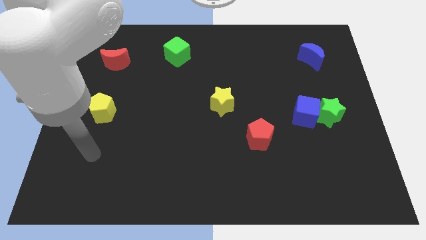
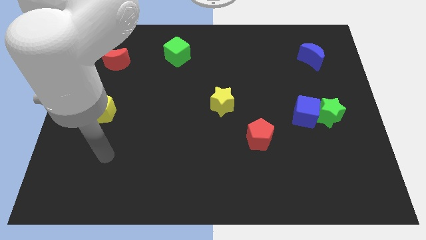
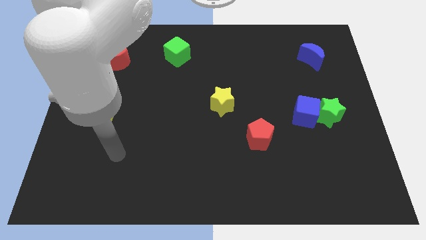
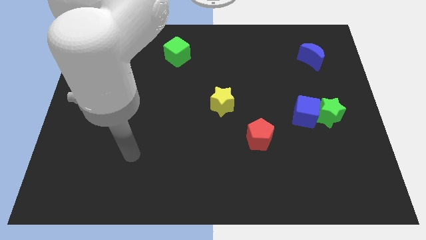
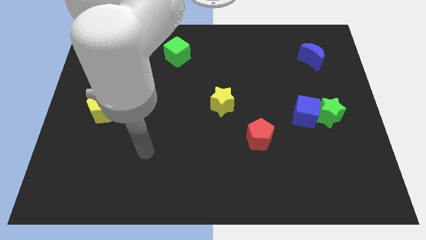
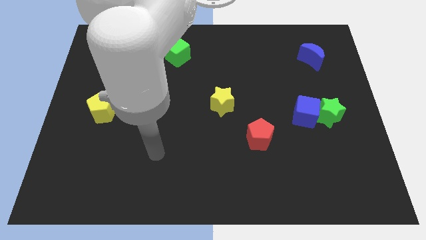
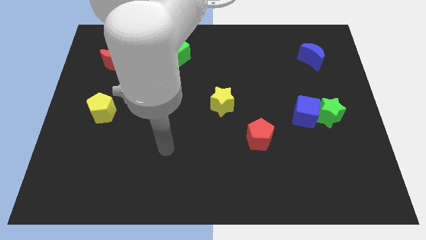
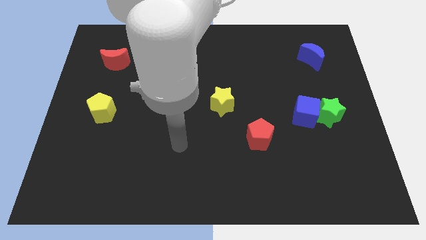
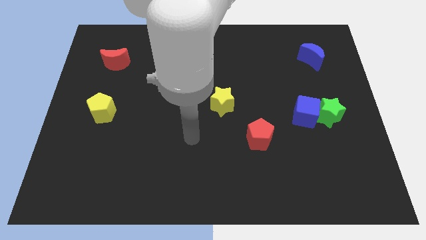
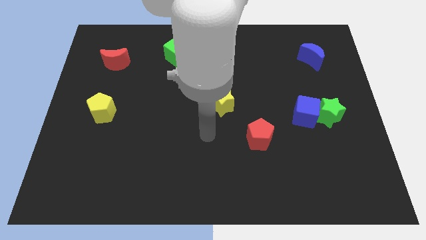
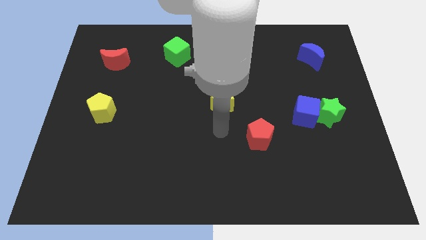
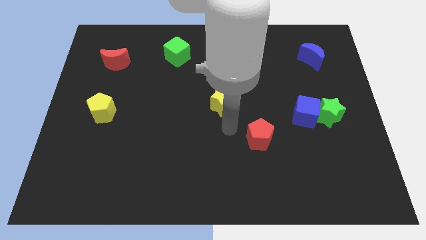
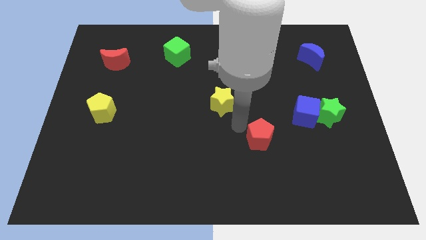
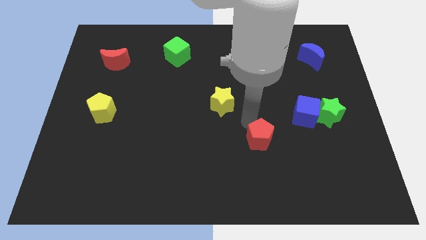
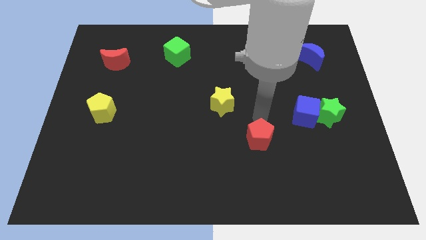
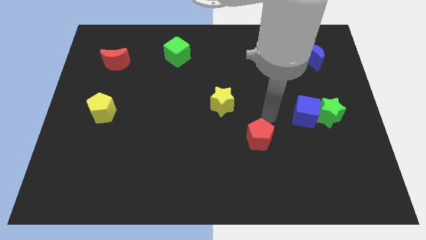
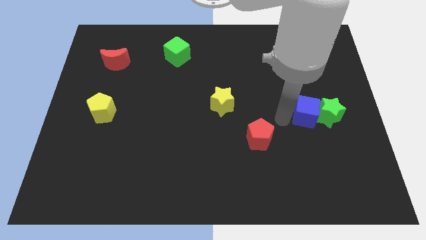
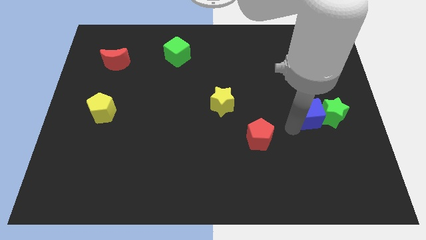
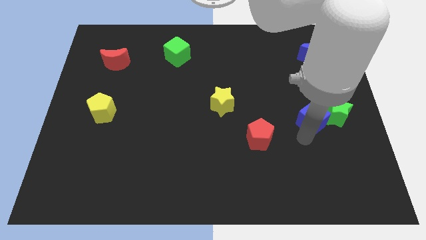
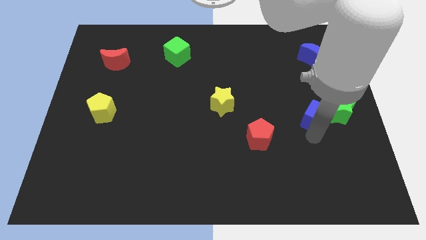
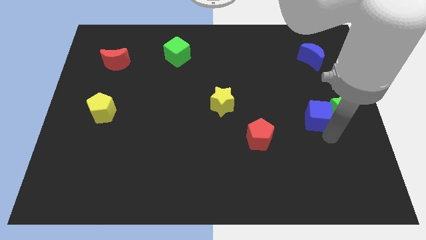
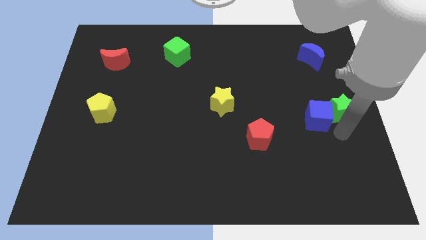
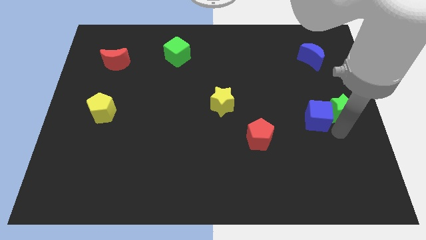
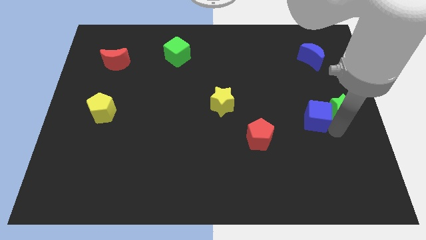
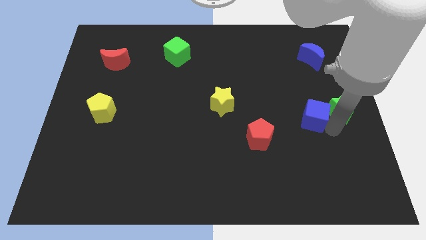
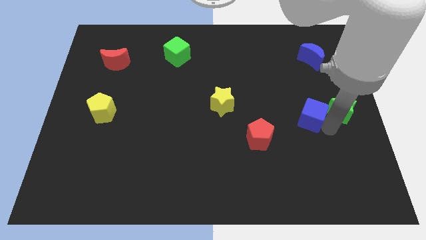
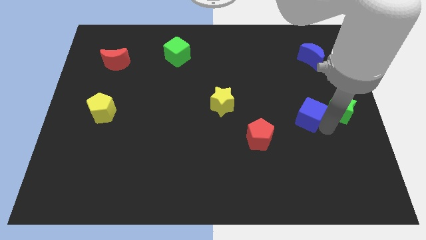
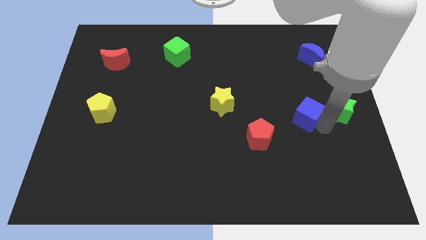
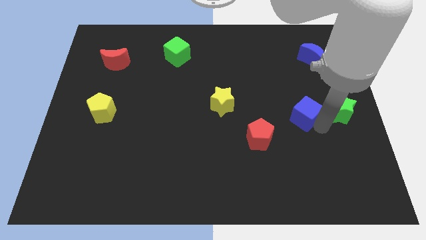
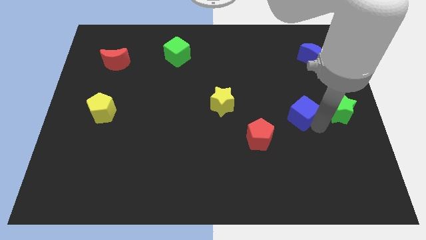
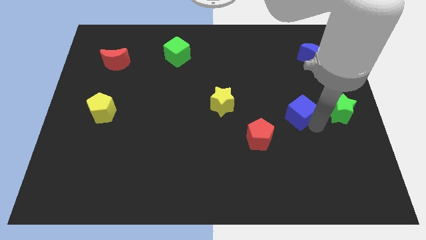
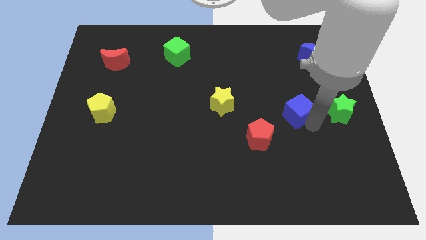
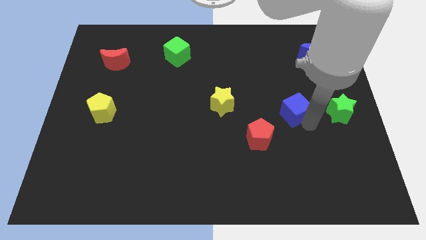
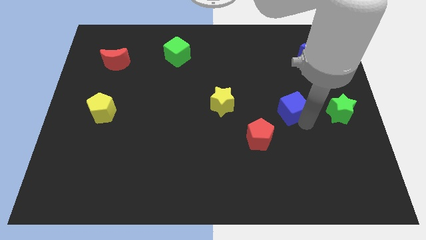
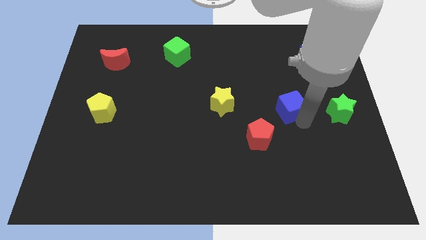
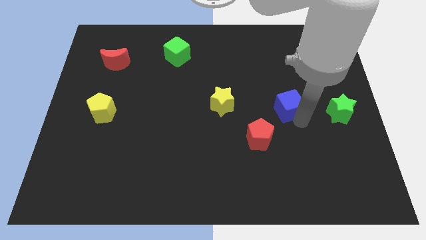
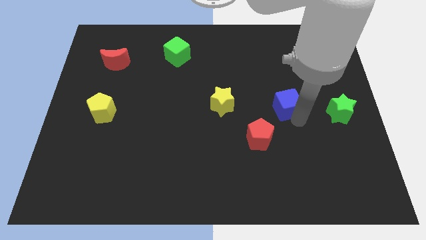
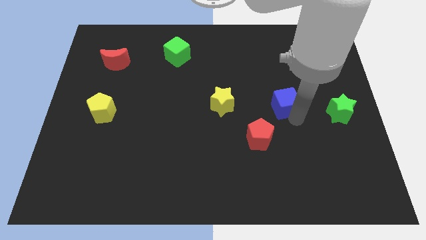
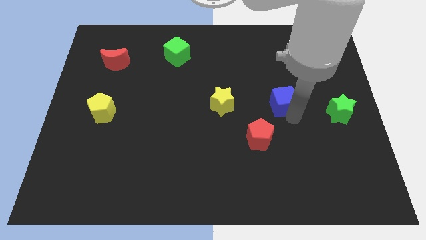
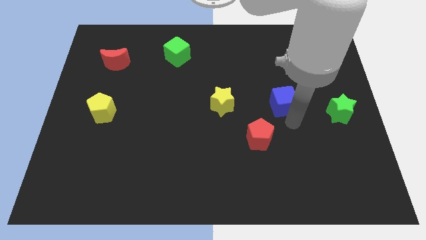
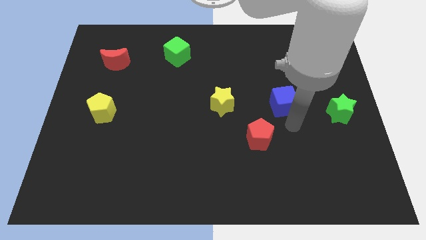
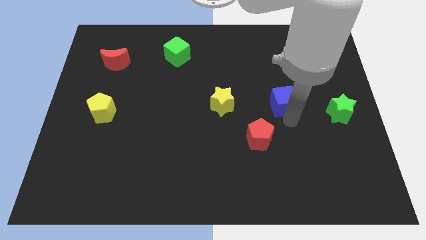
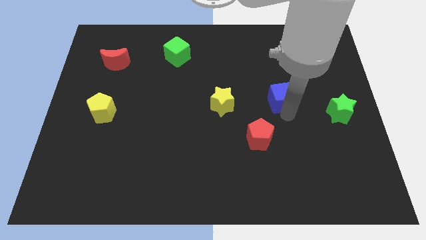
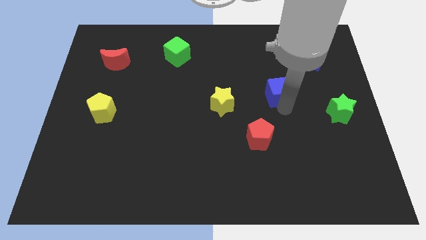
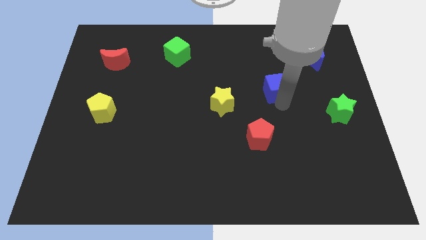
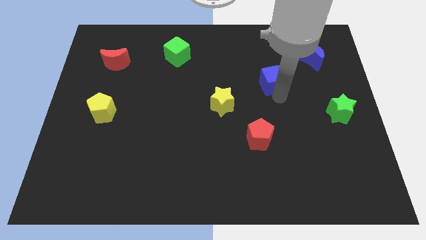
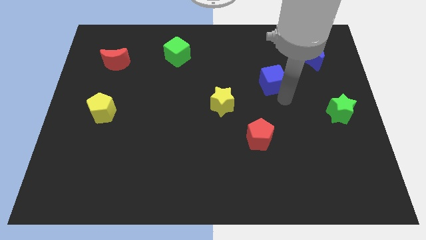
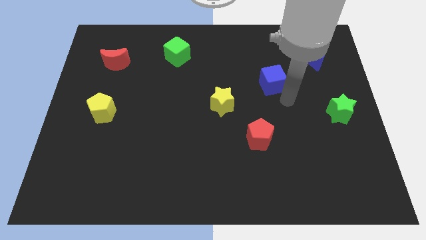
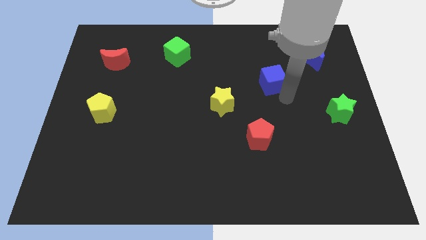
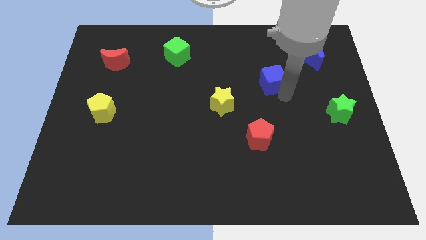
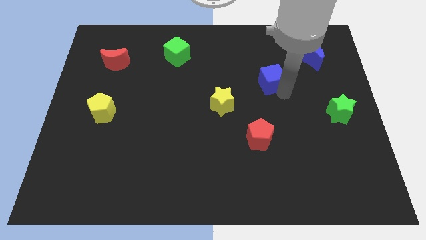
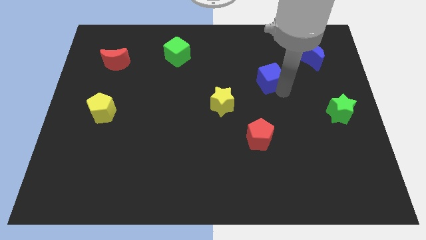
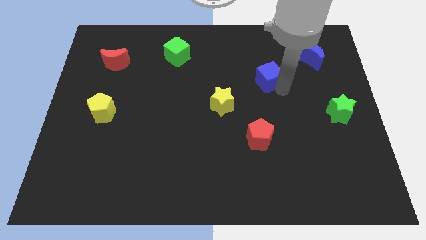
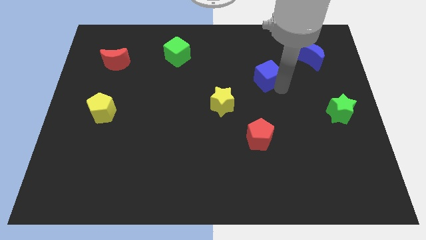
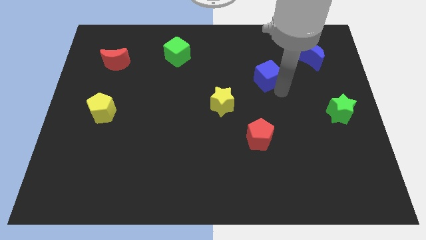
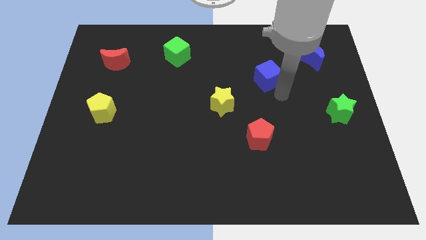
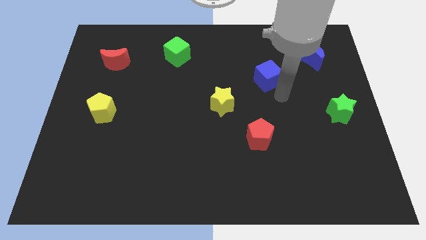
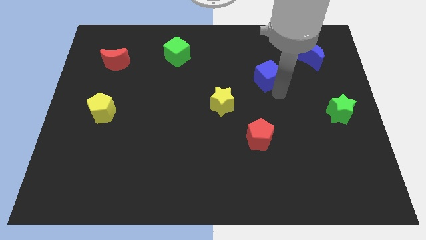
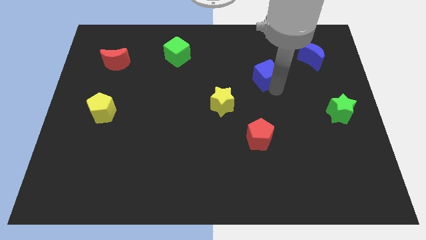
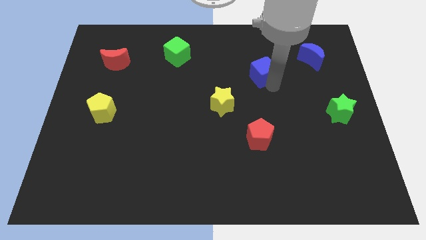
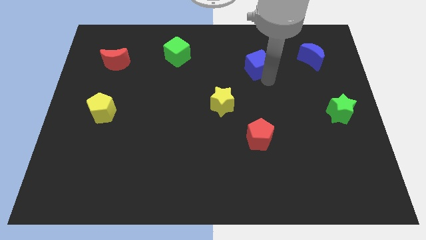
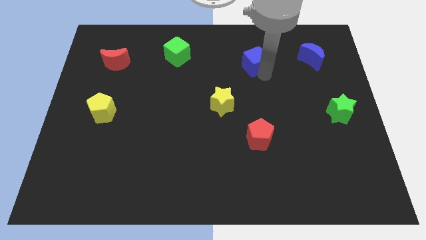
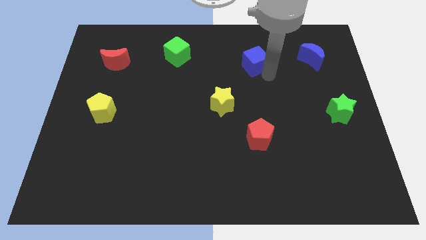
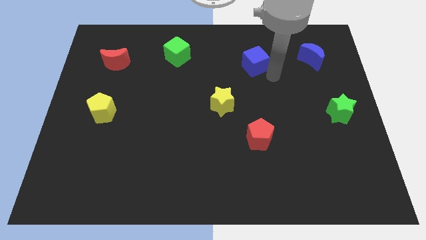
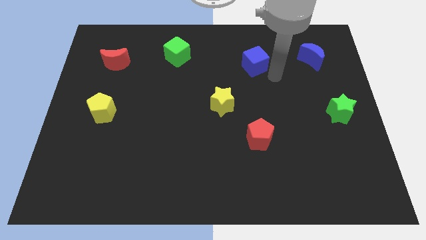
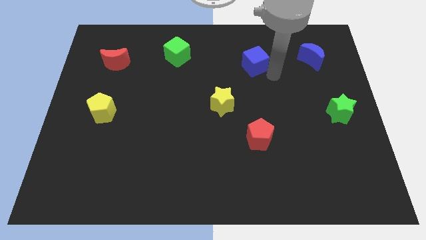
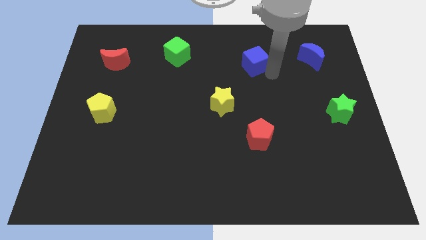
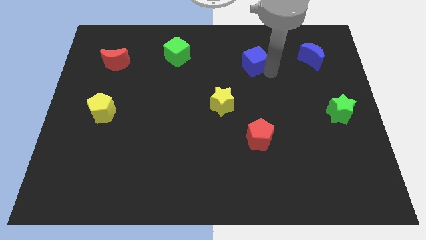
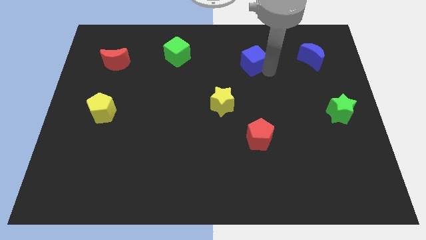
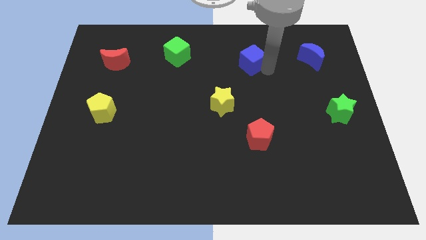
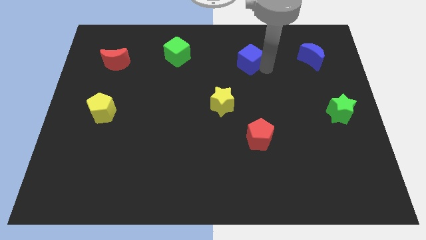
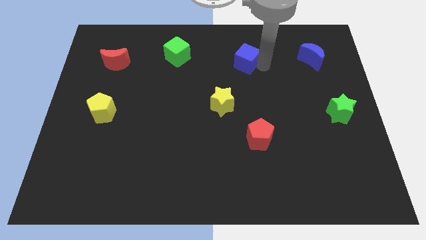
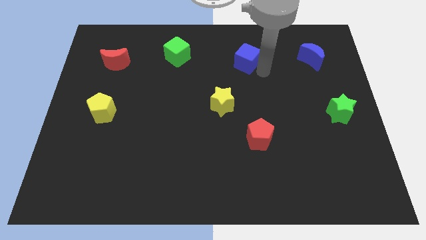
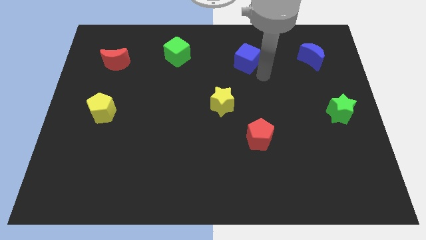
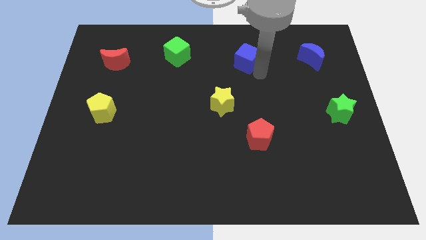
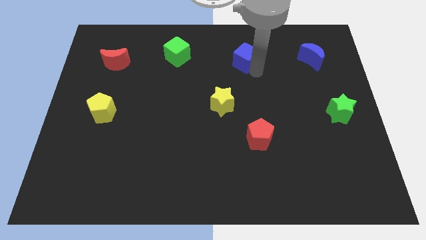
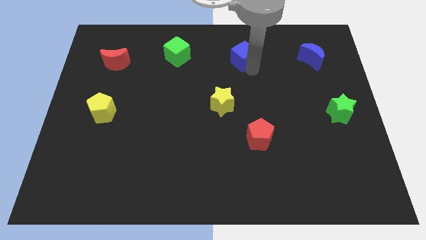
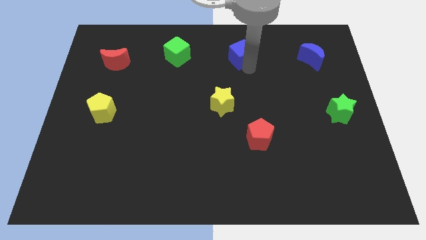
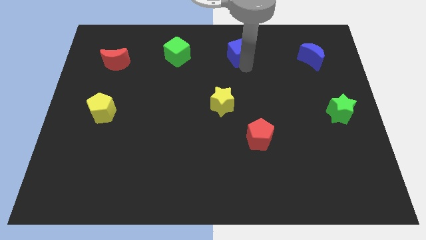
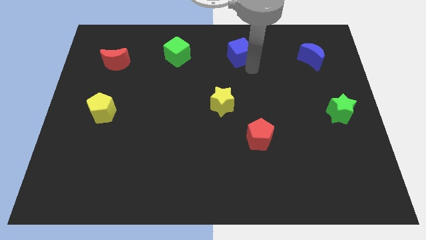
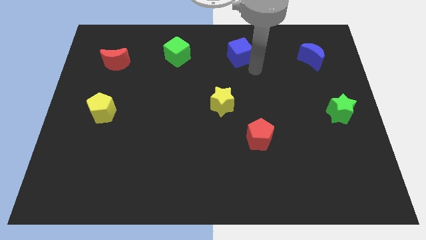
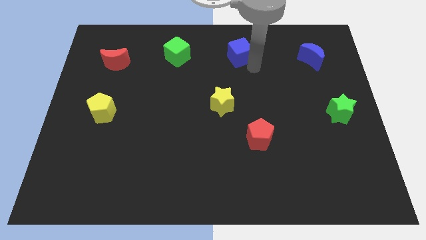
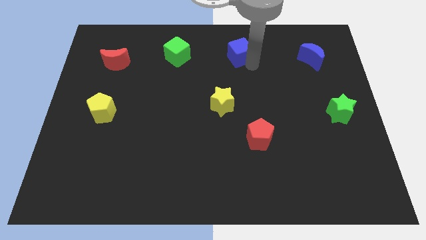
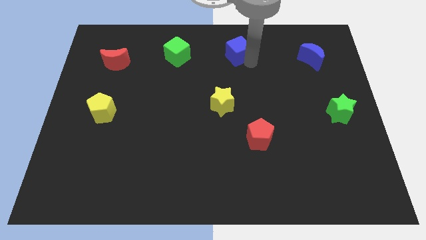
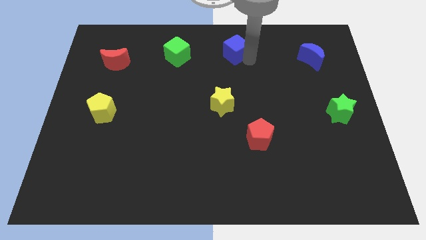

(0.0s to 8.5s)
slide the blue cube to the towards your base
